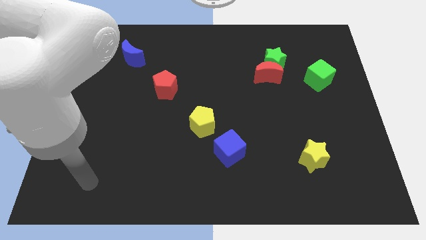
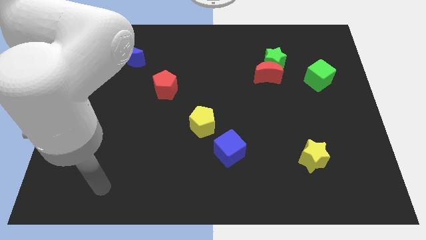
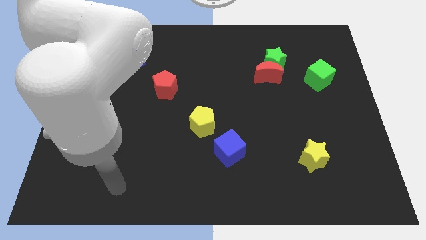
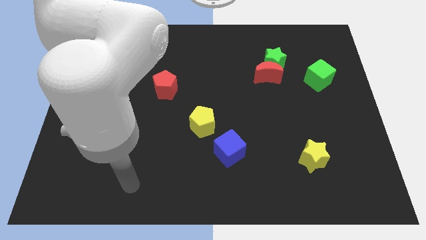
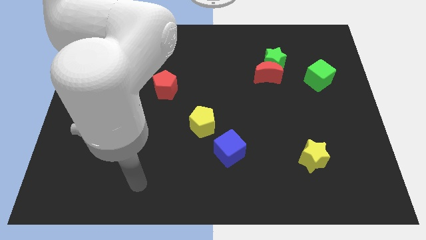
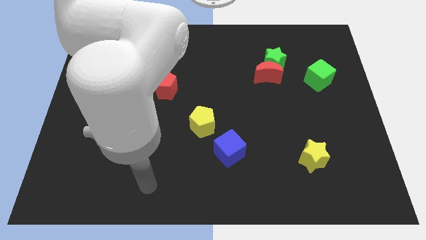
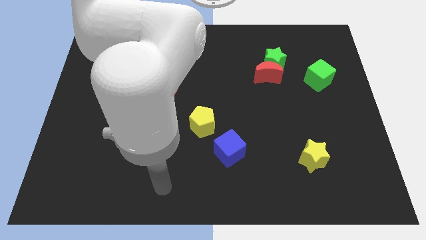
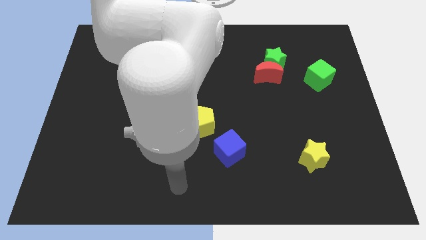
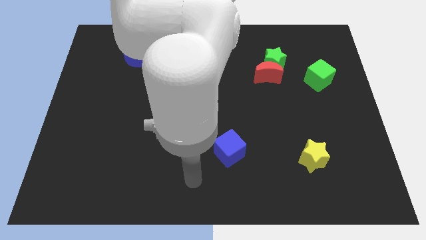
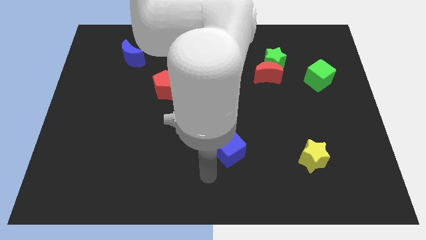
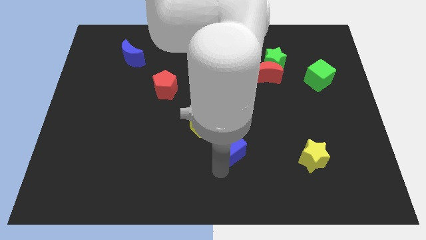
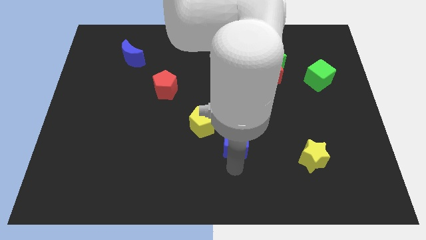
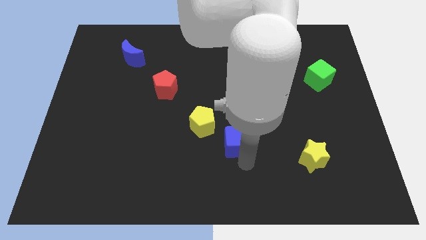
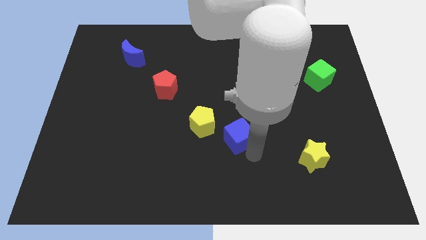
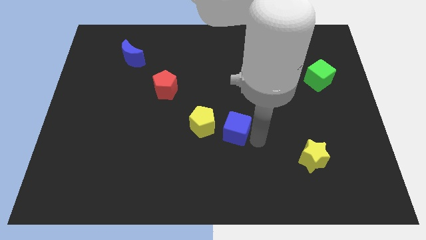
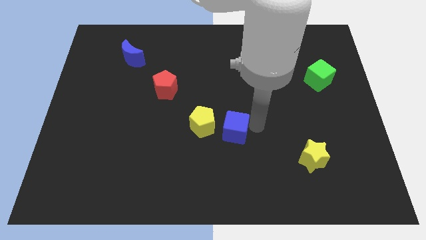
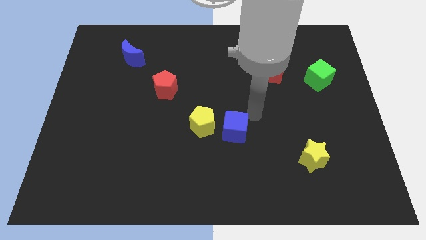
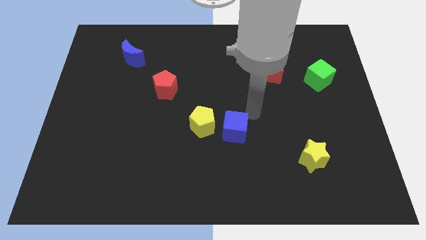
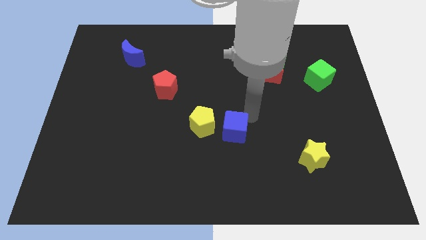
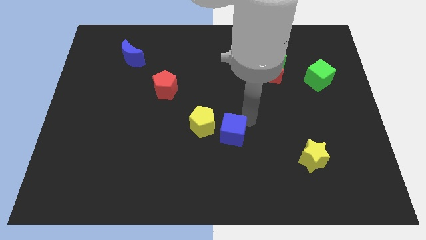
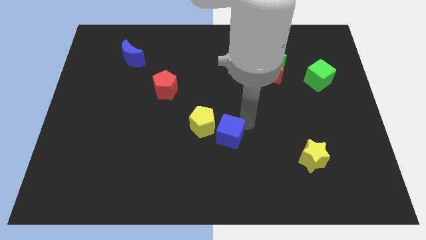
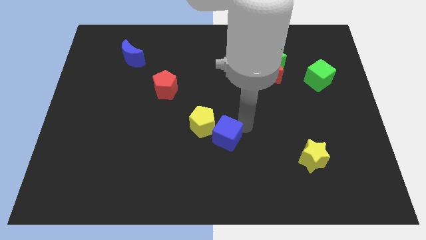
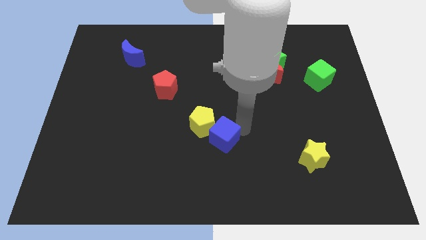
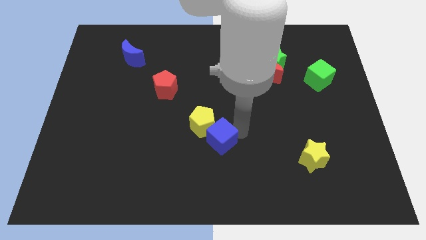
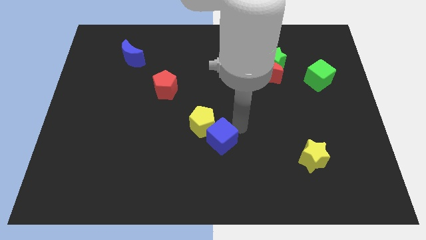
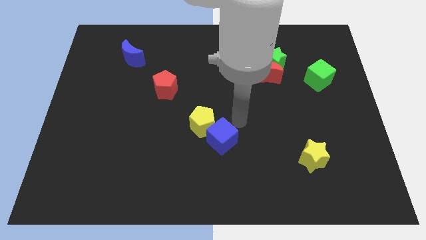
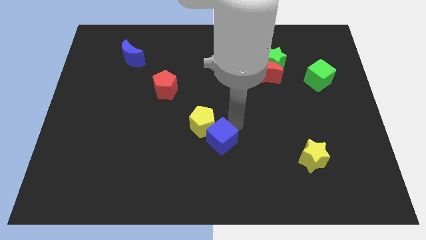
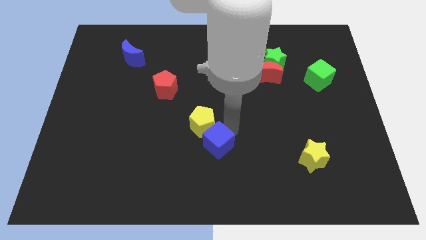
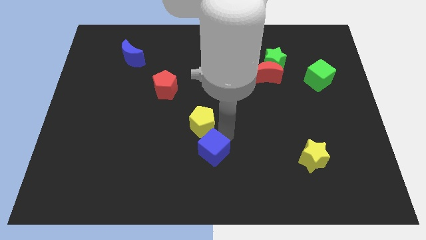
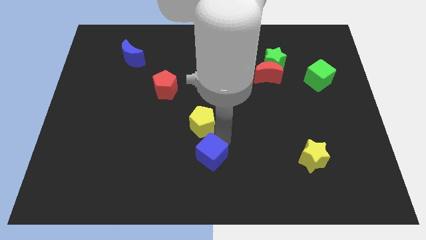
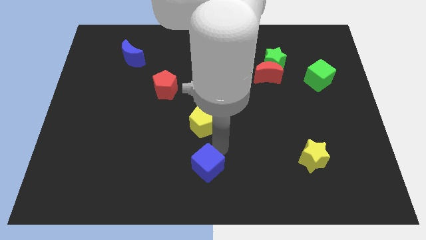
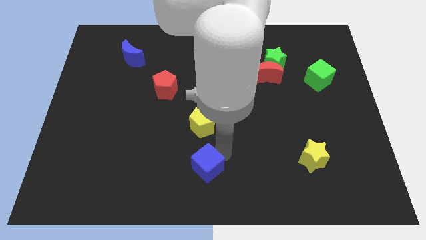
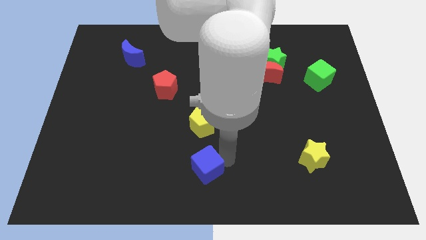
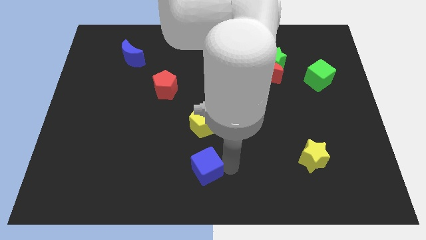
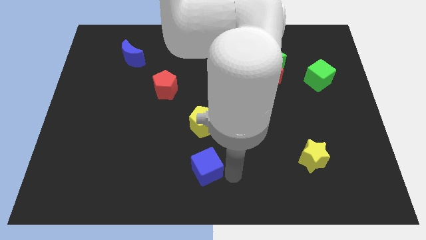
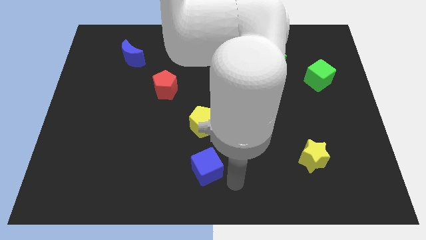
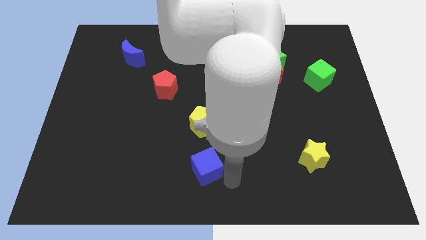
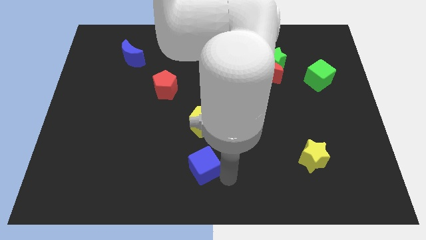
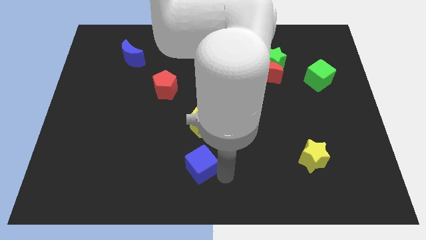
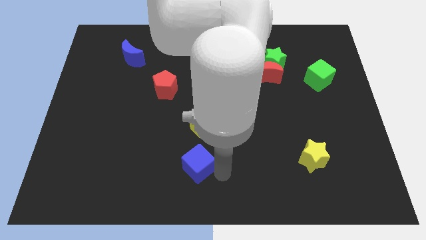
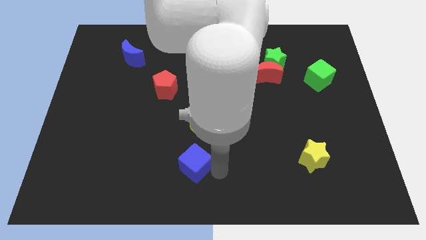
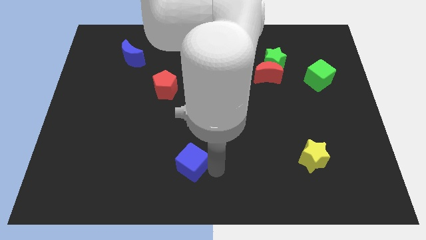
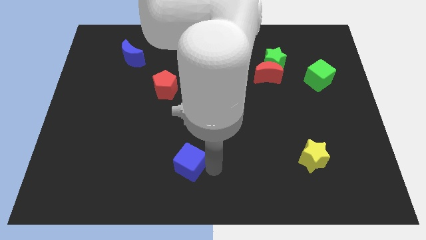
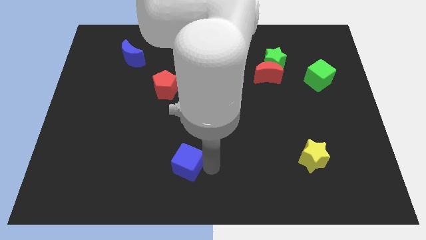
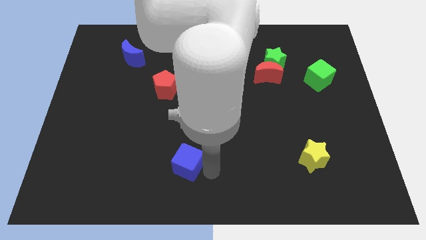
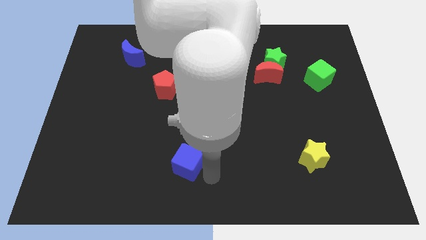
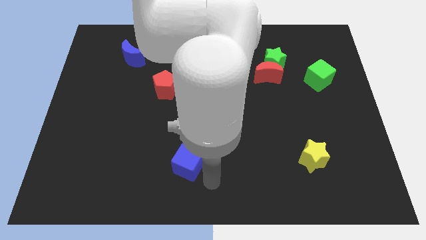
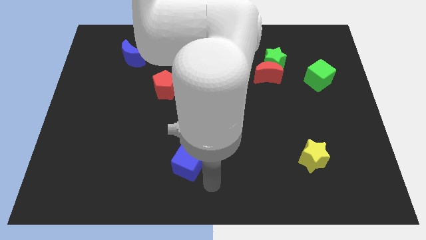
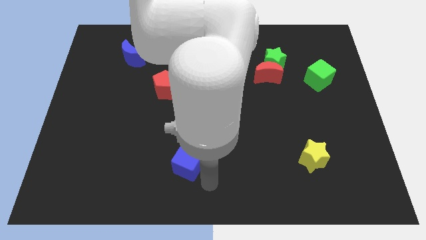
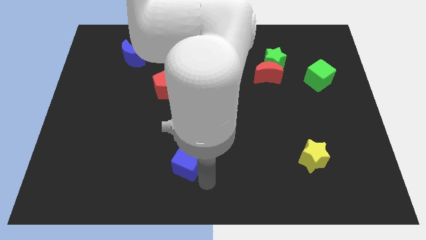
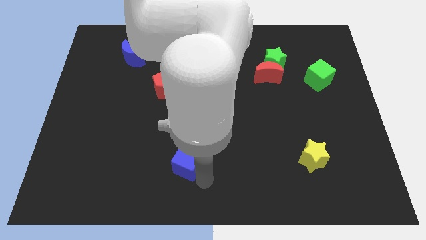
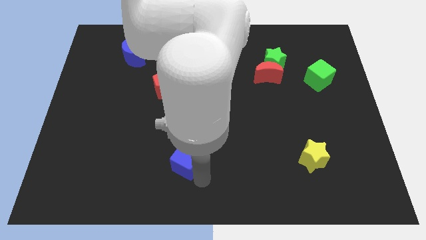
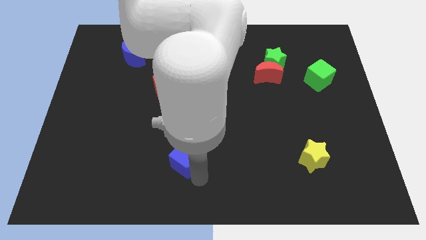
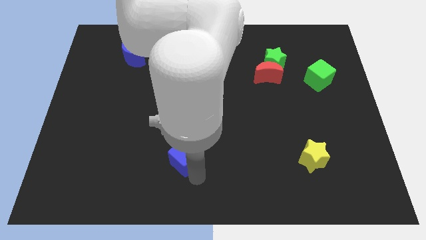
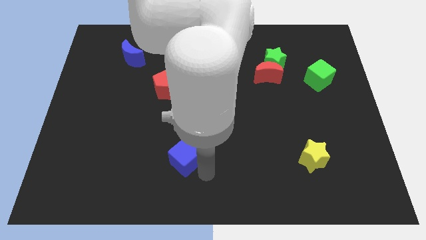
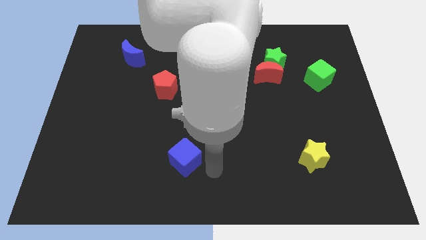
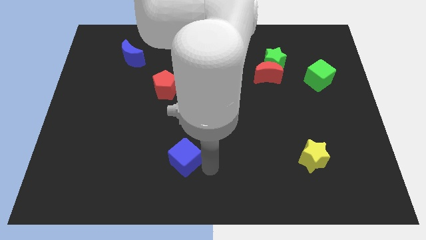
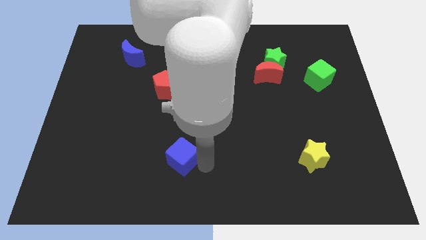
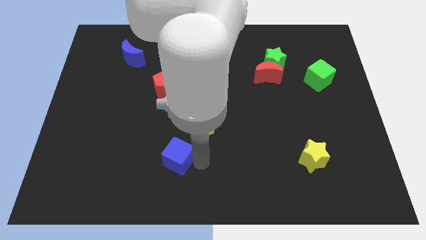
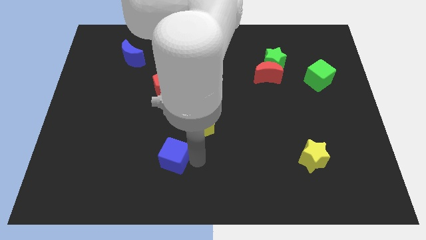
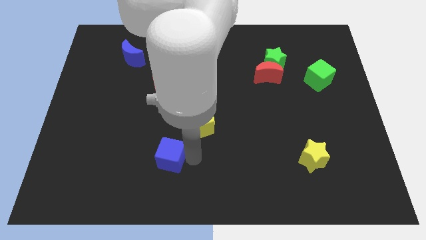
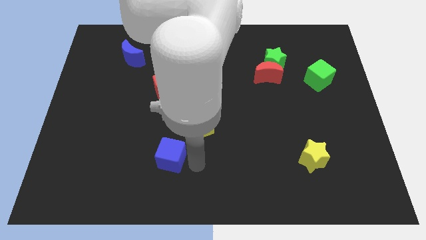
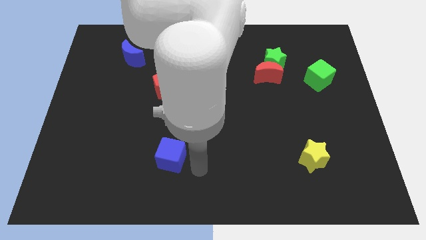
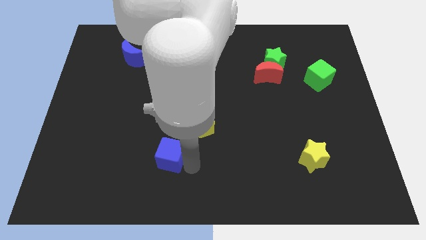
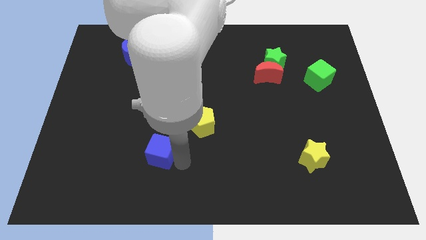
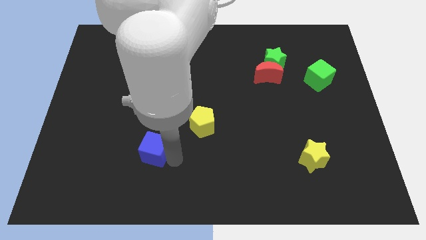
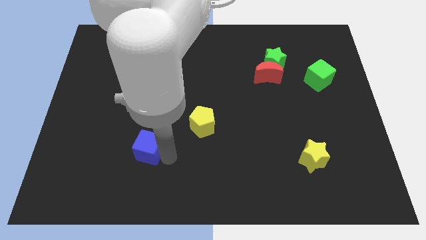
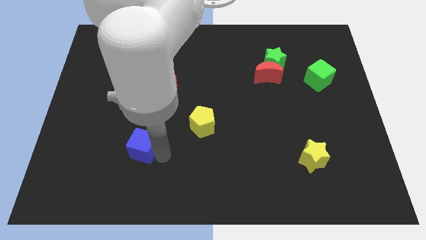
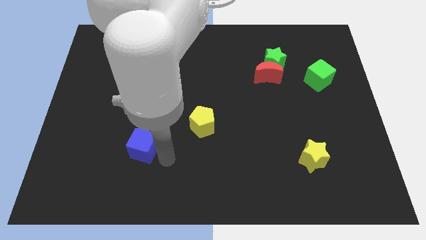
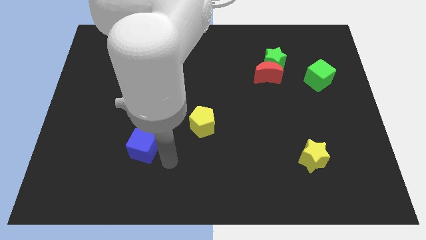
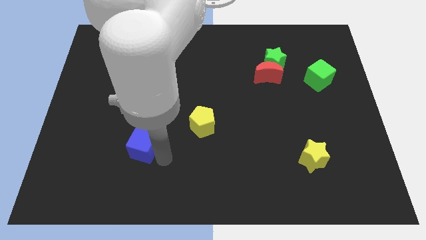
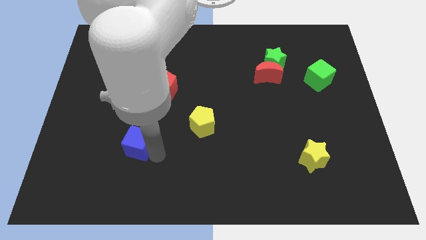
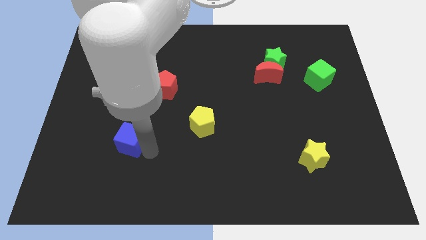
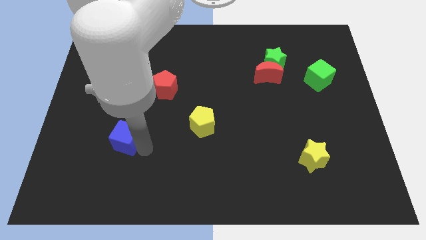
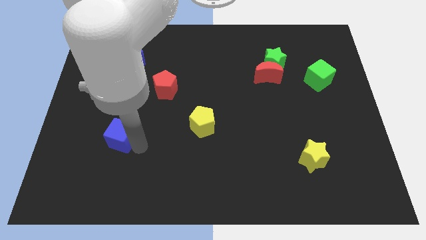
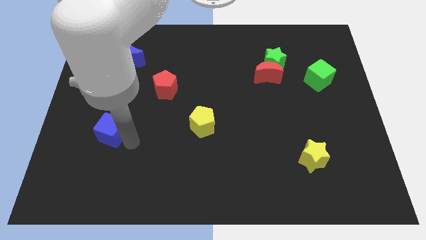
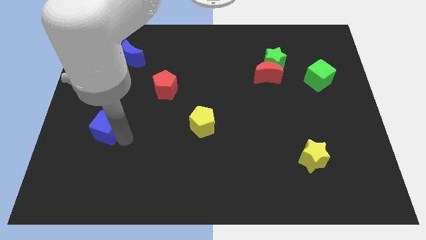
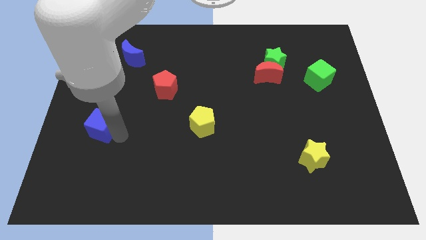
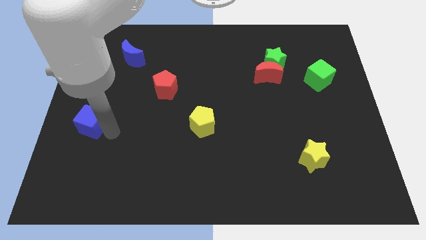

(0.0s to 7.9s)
put the blue cube to the left side of the board
